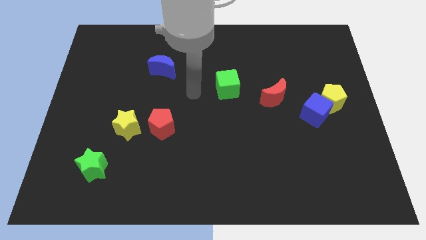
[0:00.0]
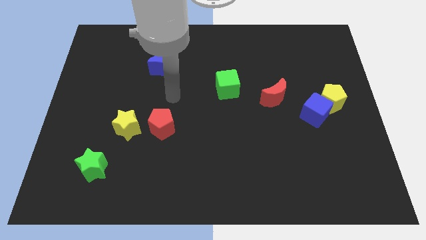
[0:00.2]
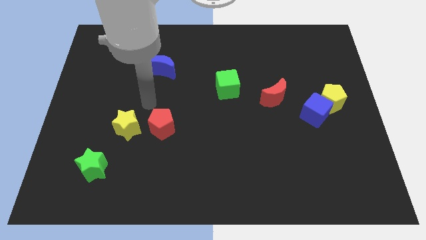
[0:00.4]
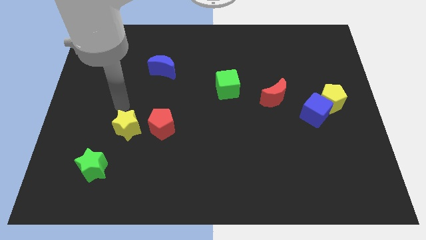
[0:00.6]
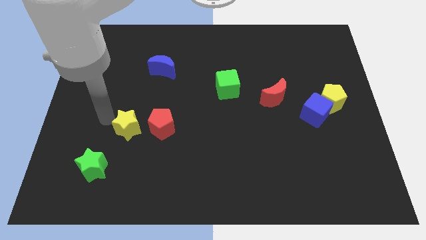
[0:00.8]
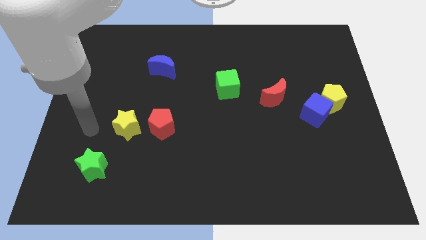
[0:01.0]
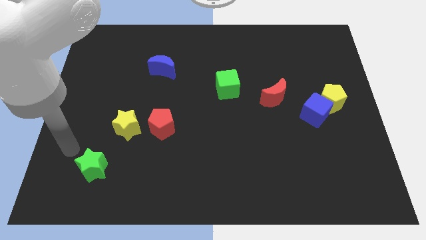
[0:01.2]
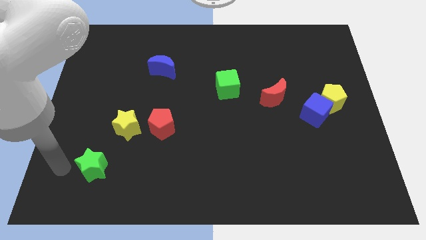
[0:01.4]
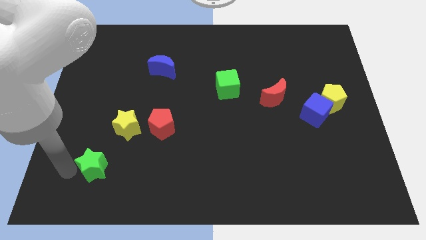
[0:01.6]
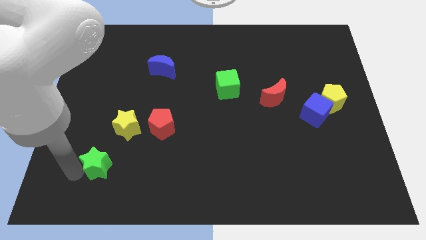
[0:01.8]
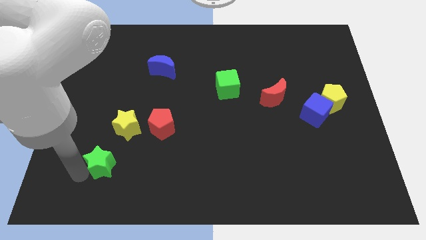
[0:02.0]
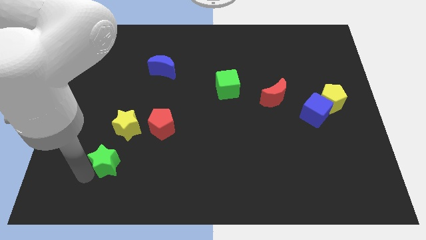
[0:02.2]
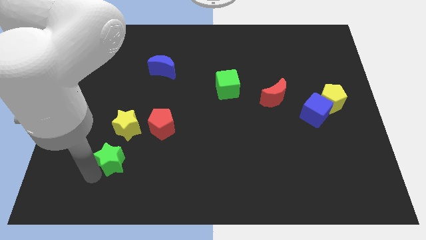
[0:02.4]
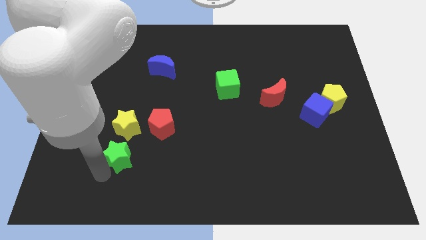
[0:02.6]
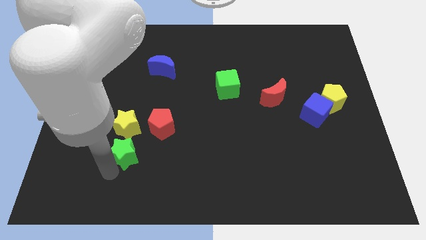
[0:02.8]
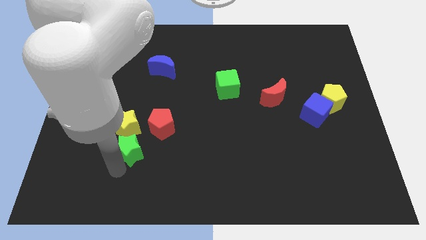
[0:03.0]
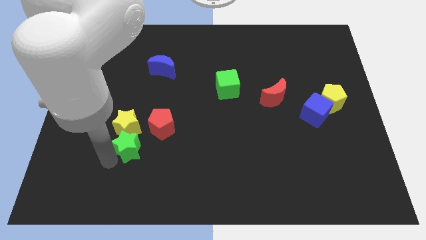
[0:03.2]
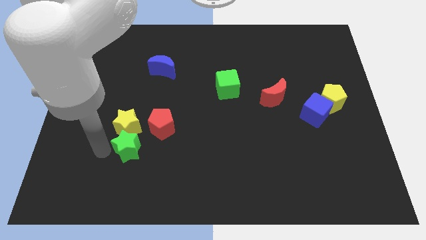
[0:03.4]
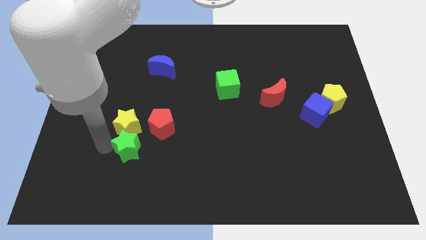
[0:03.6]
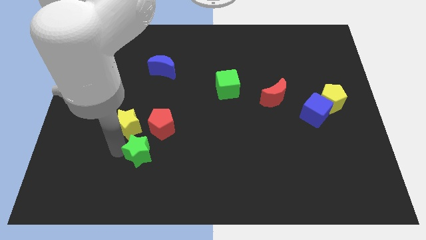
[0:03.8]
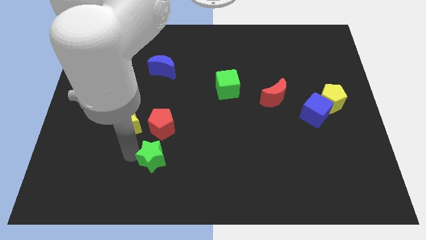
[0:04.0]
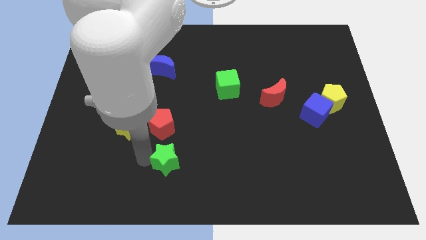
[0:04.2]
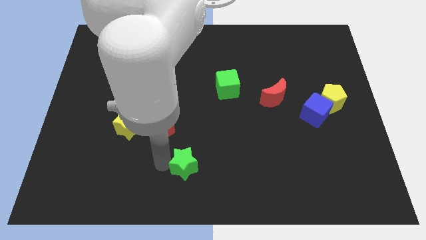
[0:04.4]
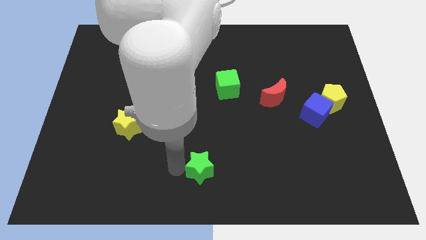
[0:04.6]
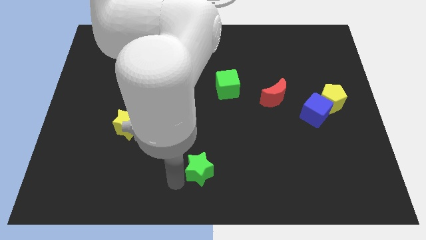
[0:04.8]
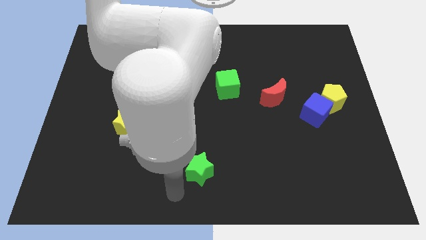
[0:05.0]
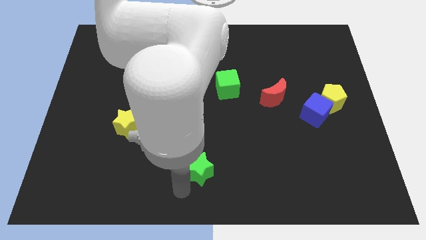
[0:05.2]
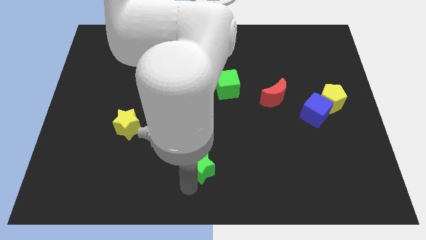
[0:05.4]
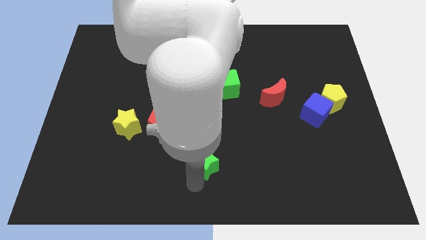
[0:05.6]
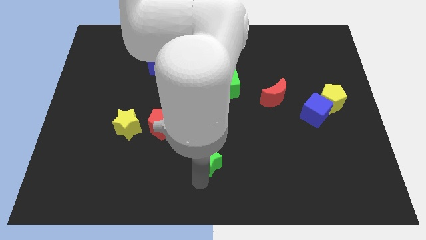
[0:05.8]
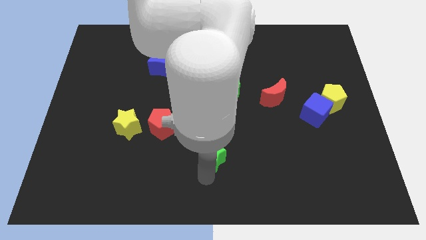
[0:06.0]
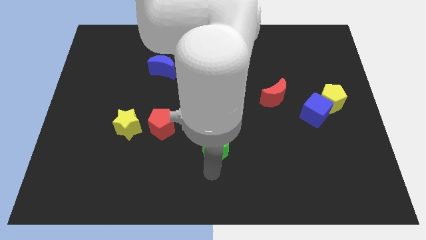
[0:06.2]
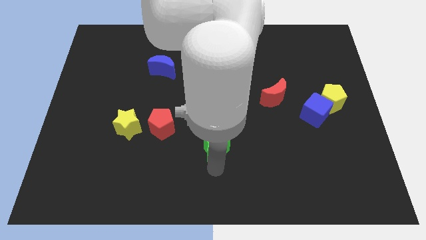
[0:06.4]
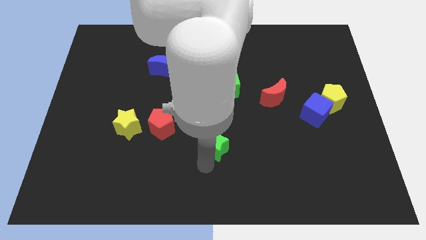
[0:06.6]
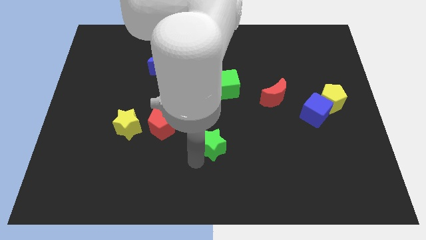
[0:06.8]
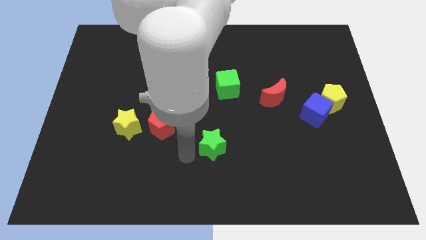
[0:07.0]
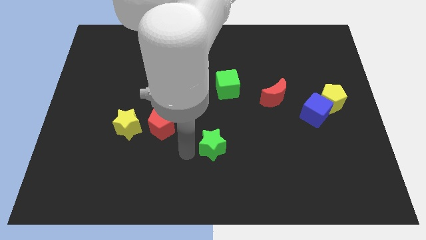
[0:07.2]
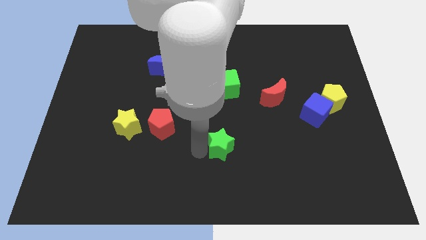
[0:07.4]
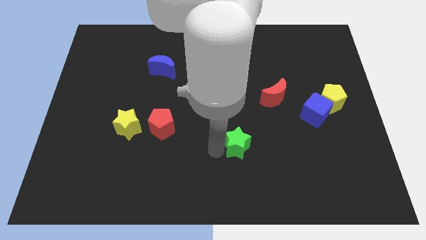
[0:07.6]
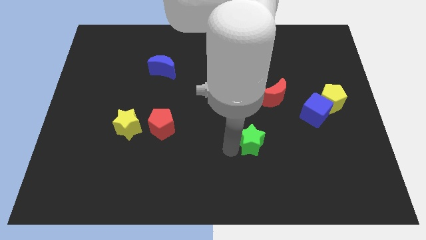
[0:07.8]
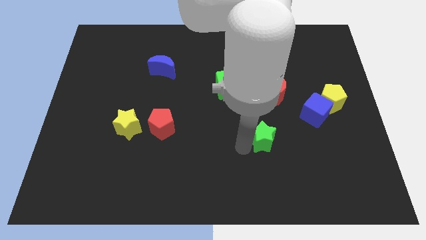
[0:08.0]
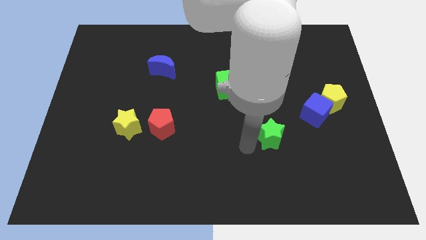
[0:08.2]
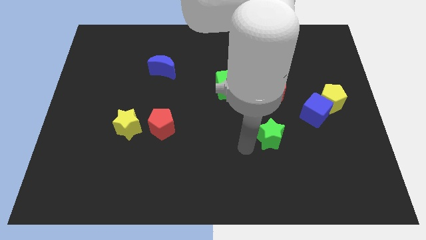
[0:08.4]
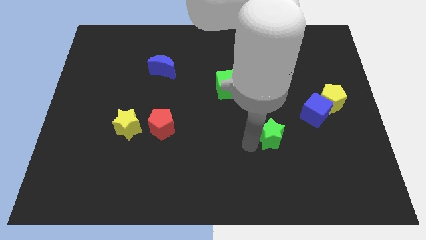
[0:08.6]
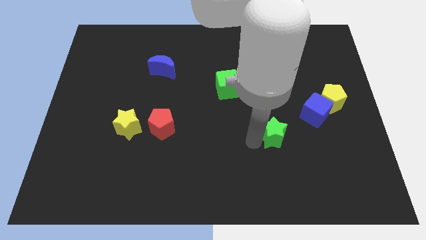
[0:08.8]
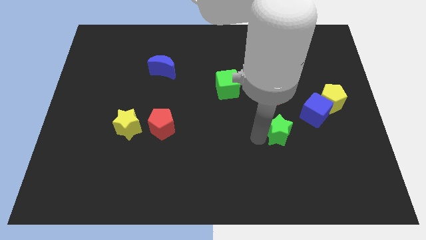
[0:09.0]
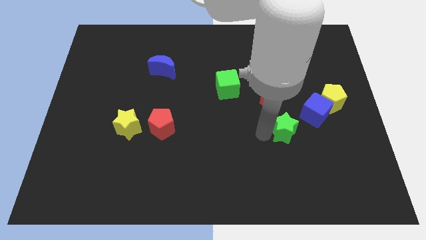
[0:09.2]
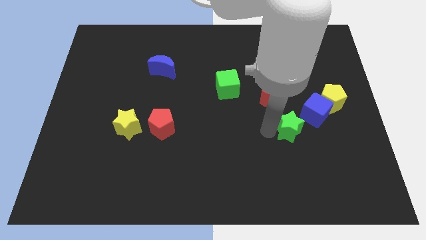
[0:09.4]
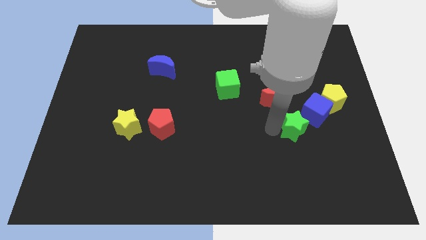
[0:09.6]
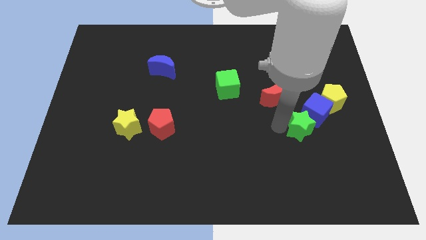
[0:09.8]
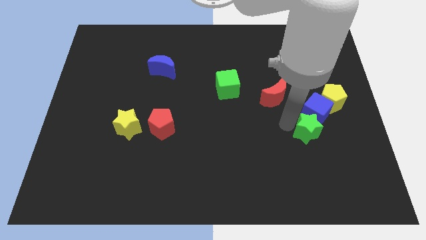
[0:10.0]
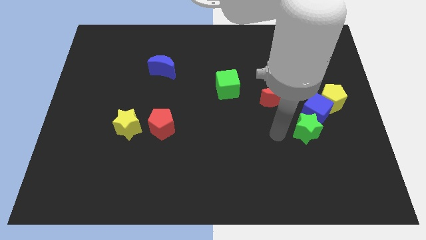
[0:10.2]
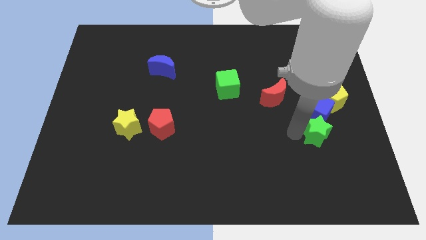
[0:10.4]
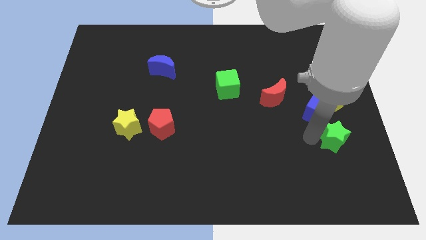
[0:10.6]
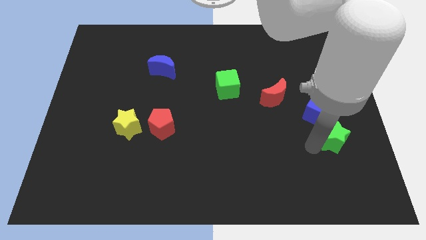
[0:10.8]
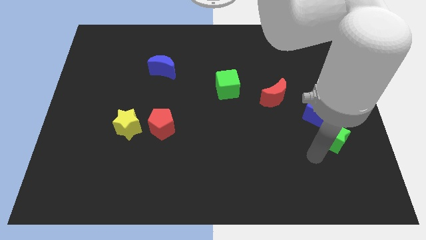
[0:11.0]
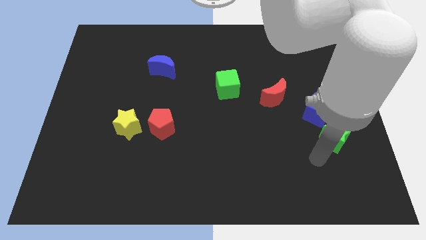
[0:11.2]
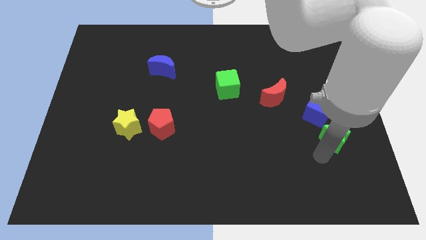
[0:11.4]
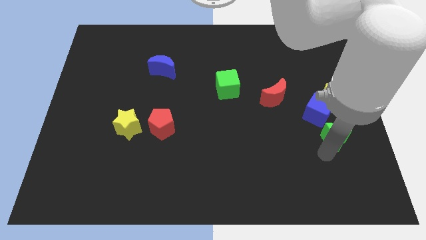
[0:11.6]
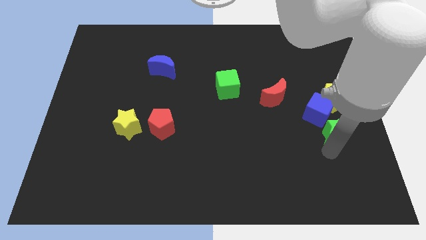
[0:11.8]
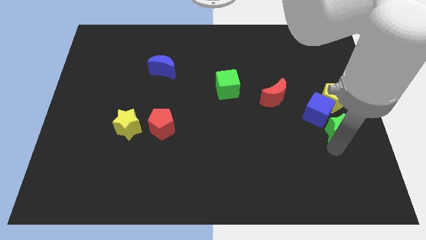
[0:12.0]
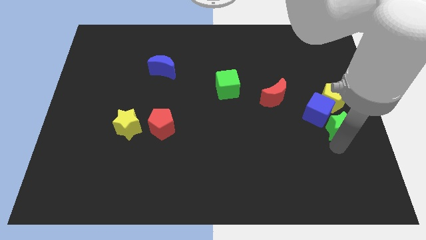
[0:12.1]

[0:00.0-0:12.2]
push the green star to the right side of the board

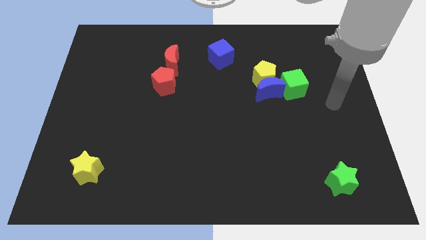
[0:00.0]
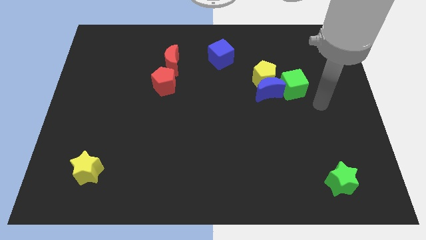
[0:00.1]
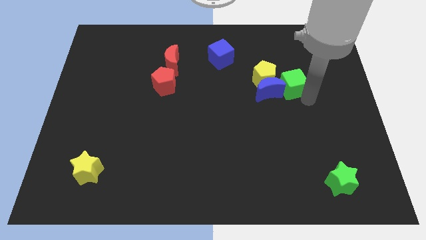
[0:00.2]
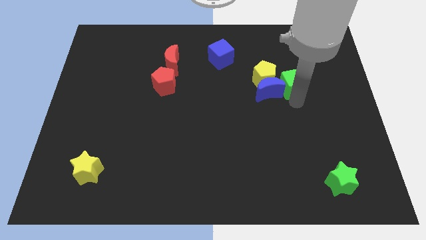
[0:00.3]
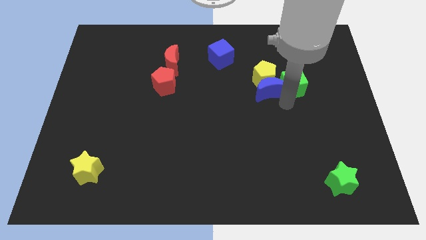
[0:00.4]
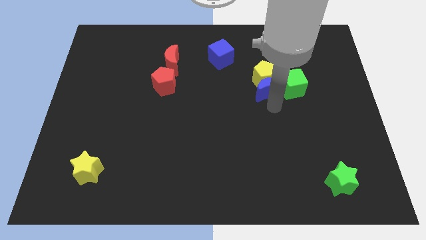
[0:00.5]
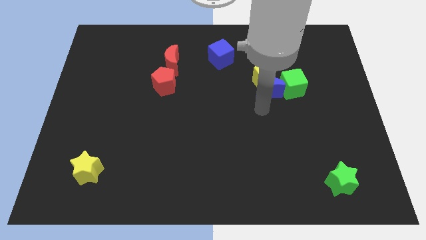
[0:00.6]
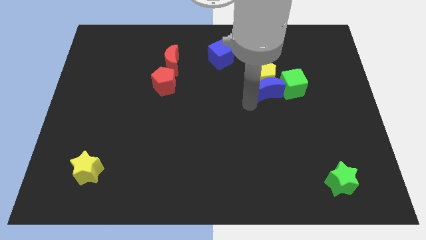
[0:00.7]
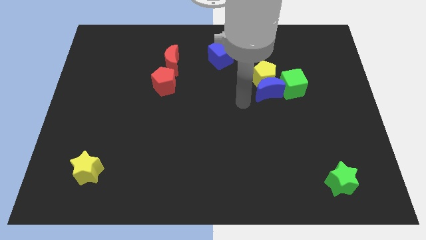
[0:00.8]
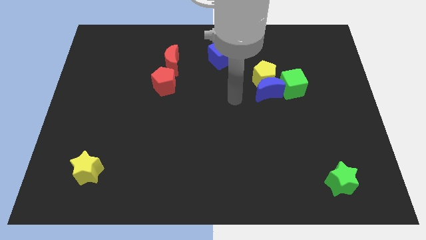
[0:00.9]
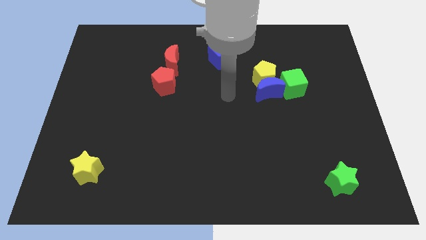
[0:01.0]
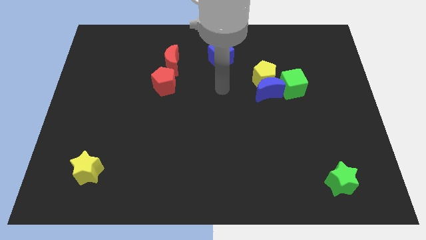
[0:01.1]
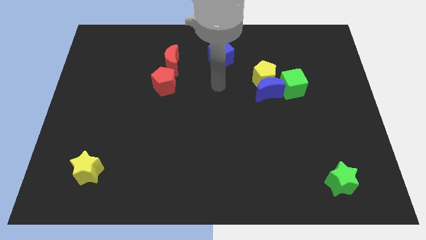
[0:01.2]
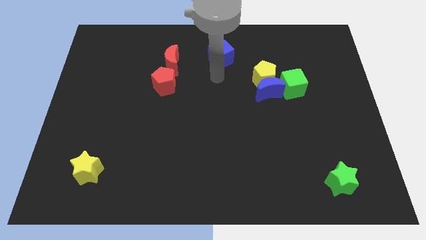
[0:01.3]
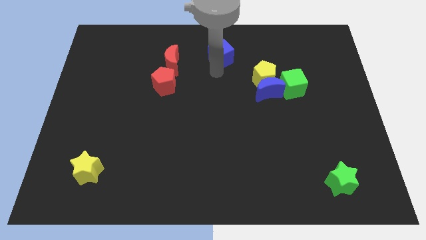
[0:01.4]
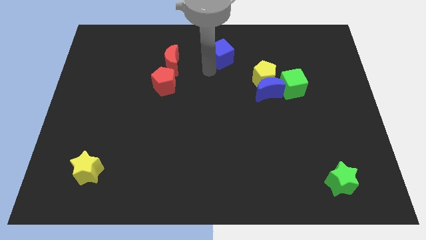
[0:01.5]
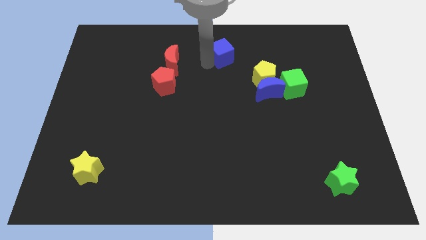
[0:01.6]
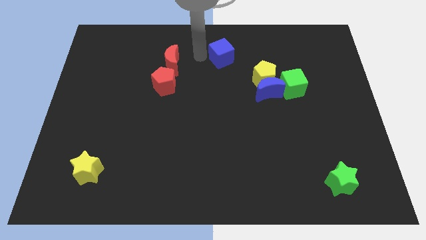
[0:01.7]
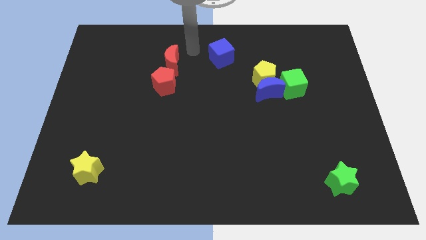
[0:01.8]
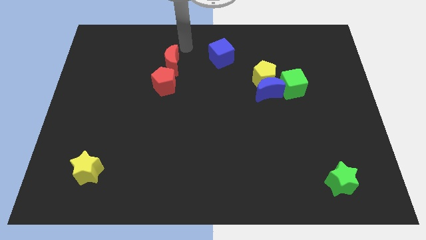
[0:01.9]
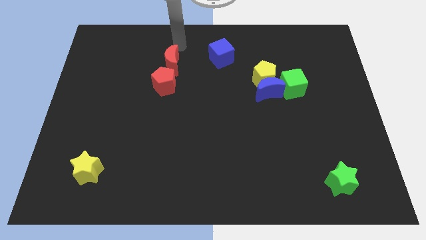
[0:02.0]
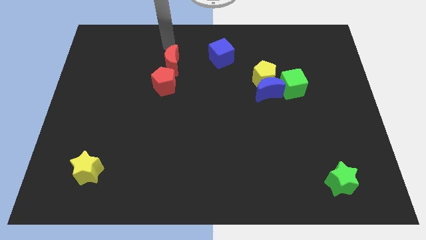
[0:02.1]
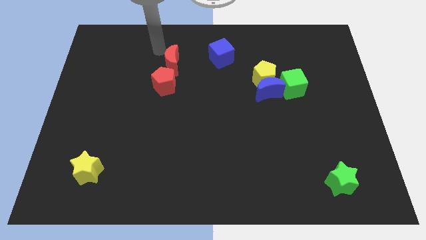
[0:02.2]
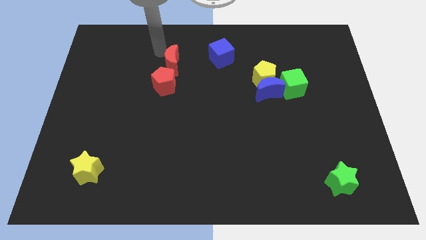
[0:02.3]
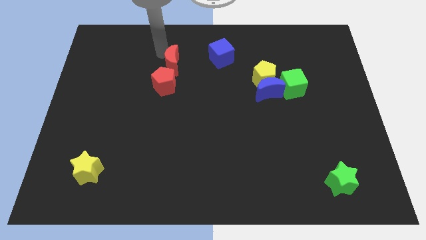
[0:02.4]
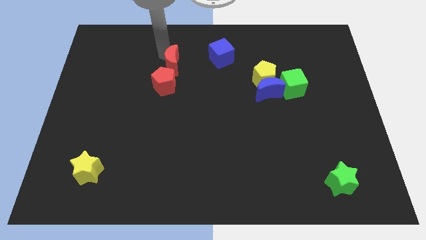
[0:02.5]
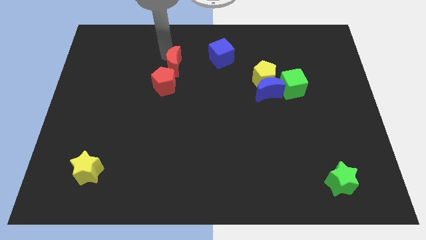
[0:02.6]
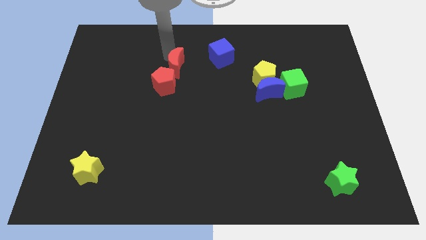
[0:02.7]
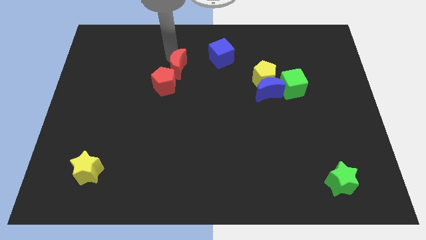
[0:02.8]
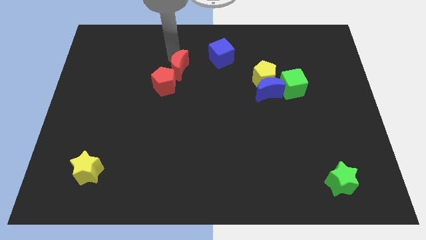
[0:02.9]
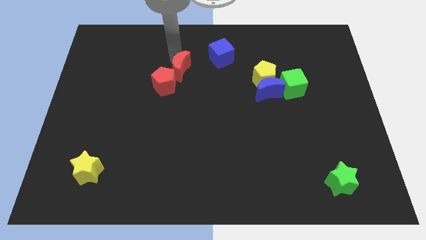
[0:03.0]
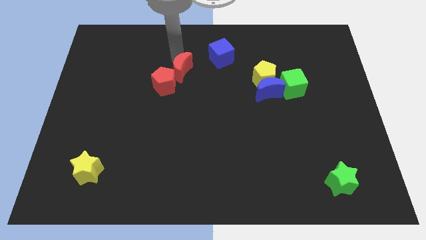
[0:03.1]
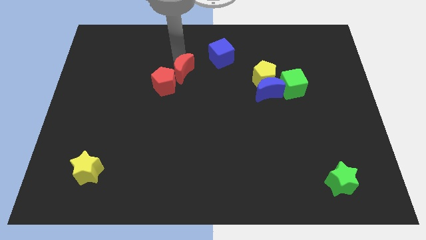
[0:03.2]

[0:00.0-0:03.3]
slide the red moon to the center of the board
